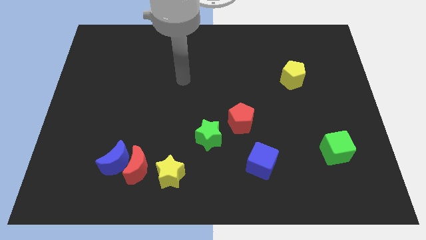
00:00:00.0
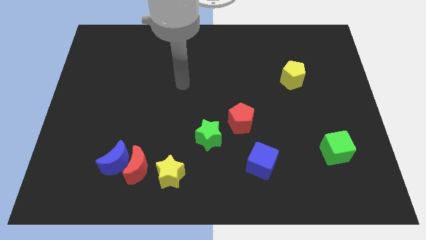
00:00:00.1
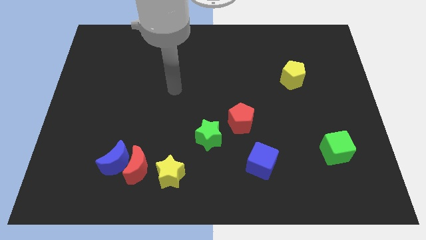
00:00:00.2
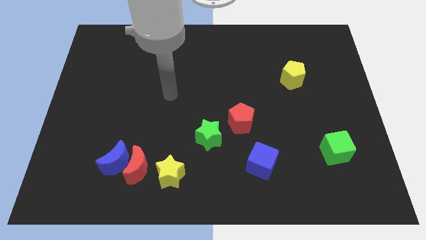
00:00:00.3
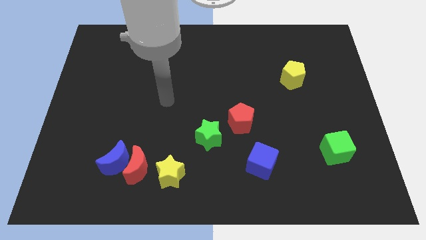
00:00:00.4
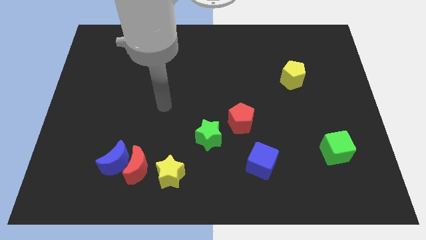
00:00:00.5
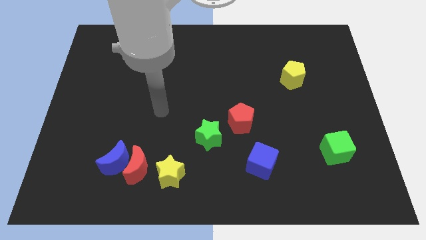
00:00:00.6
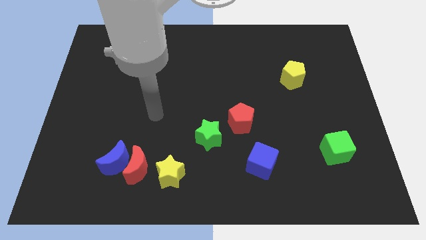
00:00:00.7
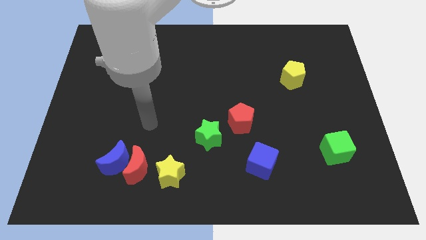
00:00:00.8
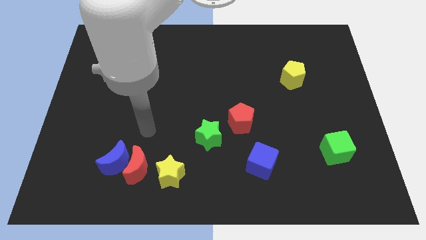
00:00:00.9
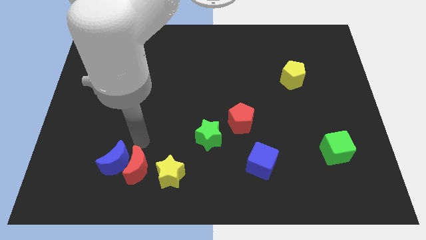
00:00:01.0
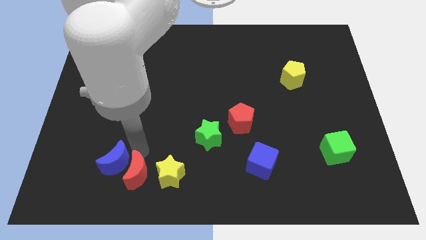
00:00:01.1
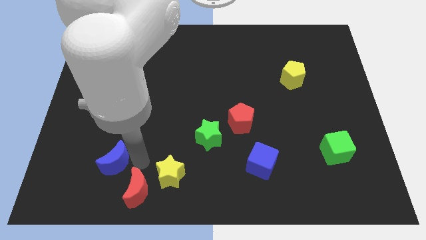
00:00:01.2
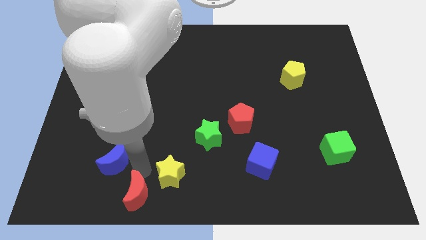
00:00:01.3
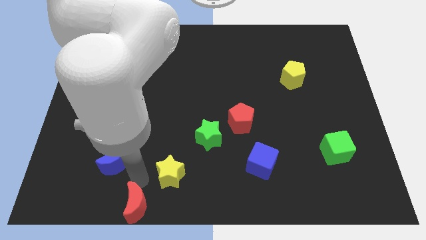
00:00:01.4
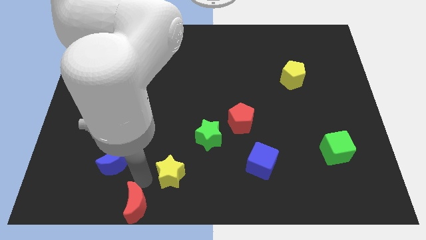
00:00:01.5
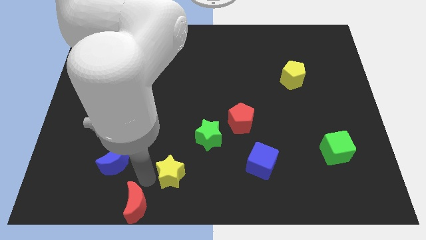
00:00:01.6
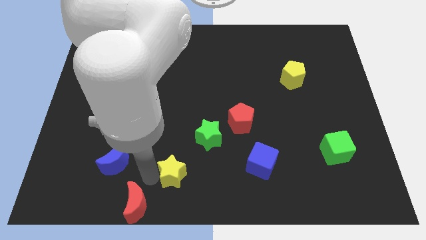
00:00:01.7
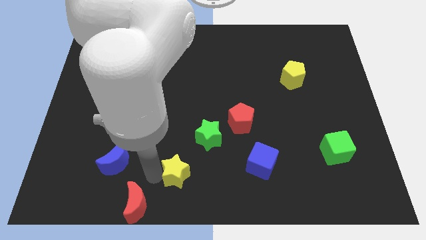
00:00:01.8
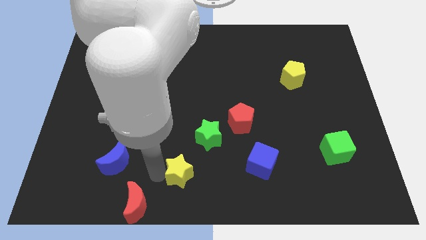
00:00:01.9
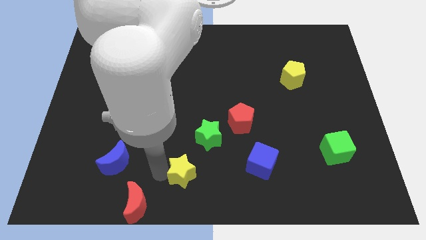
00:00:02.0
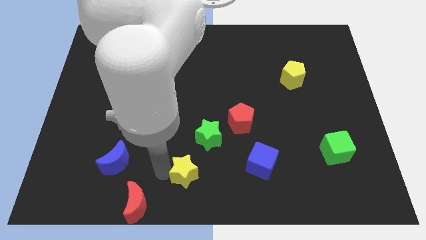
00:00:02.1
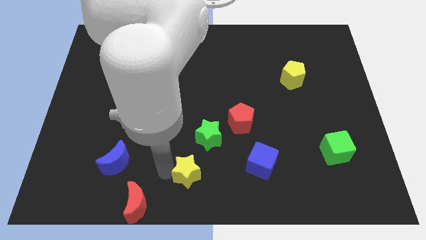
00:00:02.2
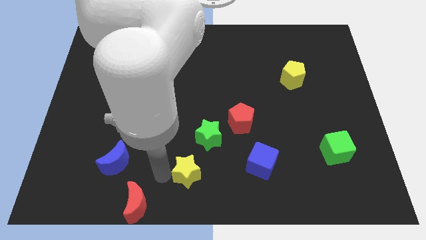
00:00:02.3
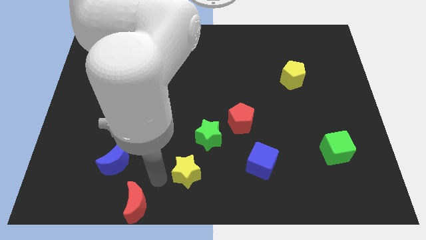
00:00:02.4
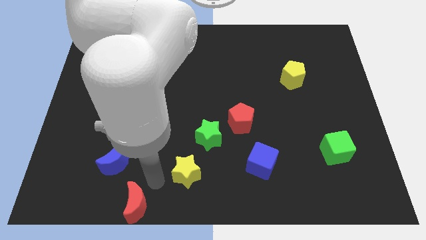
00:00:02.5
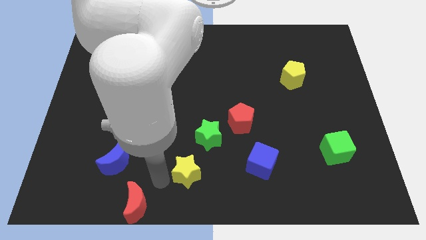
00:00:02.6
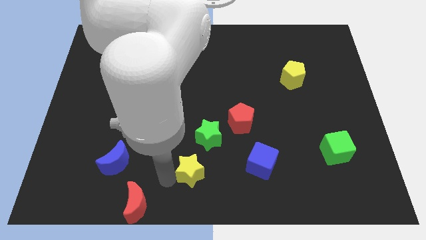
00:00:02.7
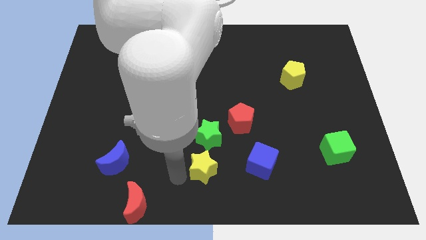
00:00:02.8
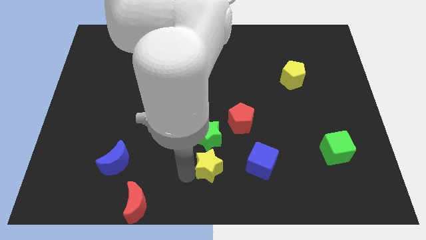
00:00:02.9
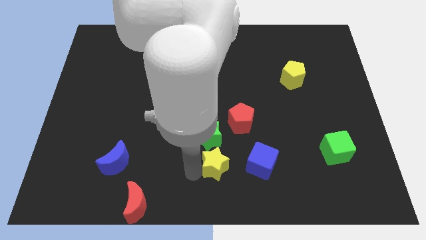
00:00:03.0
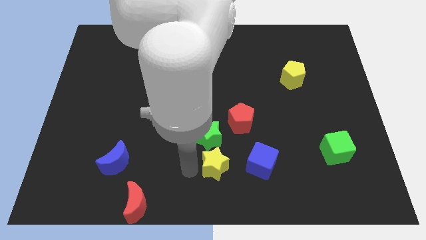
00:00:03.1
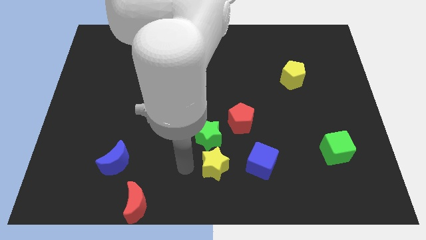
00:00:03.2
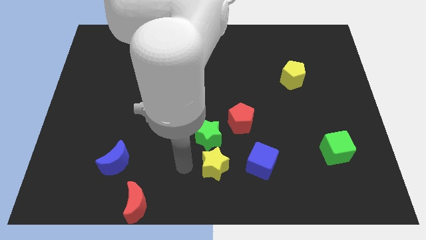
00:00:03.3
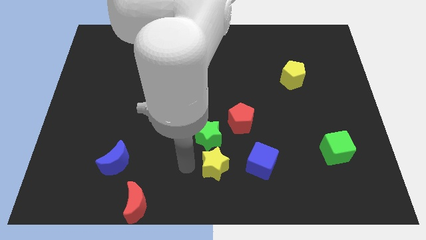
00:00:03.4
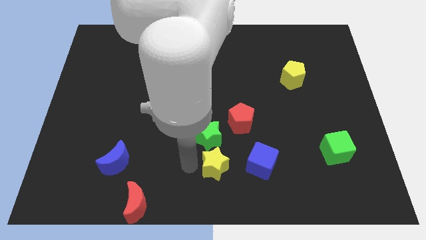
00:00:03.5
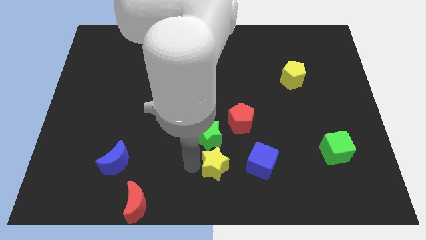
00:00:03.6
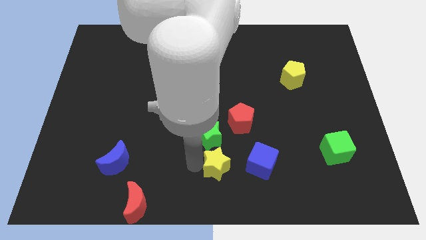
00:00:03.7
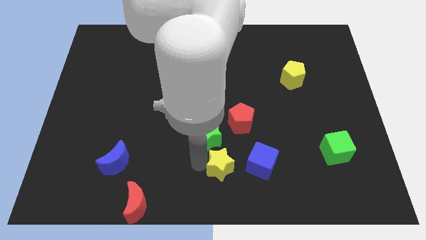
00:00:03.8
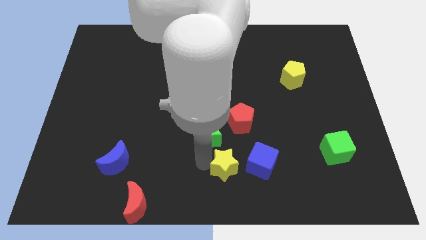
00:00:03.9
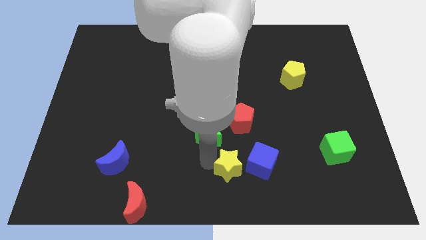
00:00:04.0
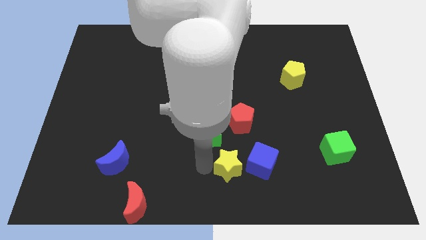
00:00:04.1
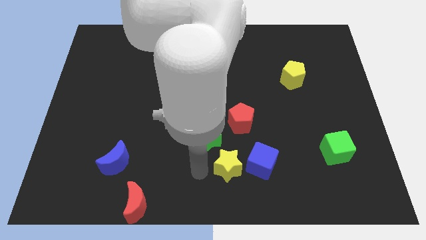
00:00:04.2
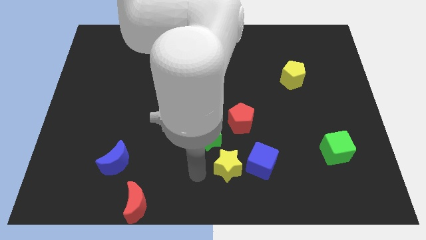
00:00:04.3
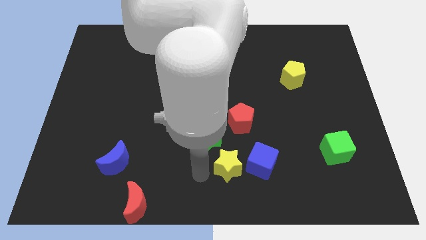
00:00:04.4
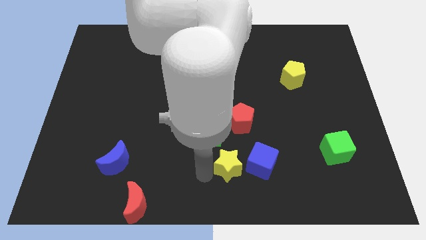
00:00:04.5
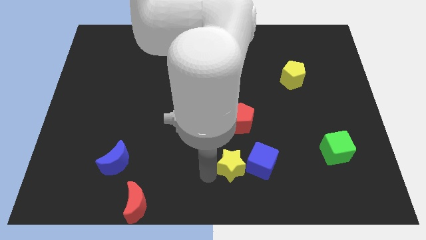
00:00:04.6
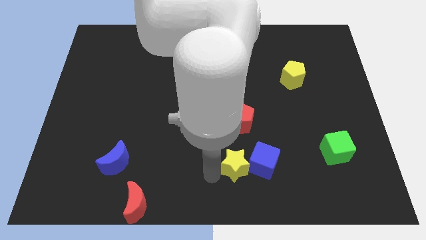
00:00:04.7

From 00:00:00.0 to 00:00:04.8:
put the yellow star next to the blue cube

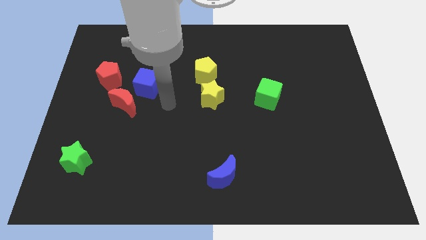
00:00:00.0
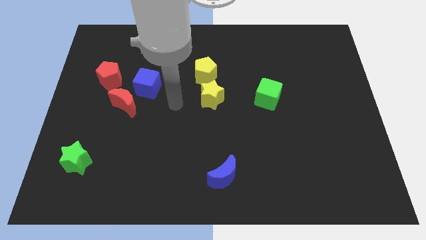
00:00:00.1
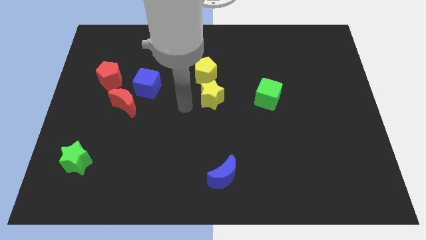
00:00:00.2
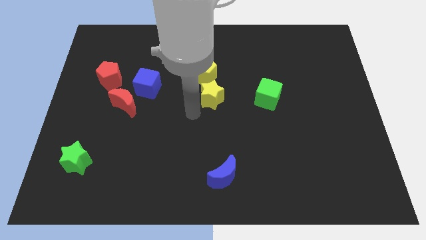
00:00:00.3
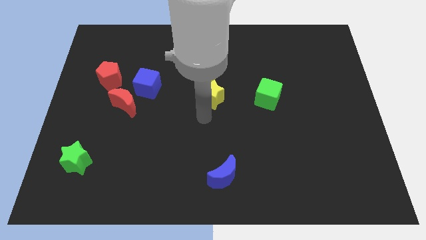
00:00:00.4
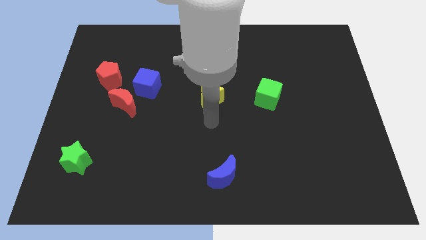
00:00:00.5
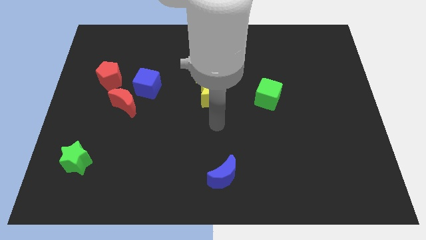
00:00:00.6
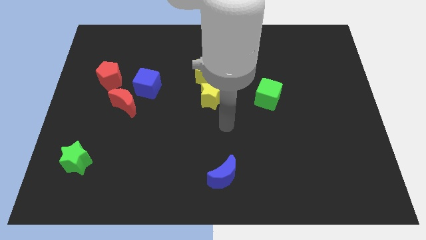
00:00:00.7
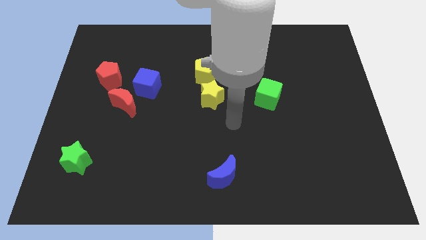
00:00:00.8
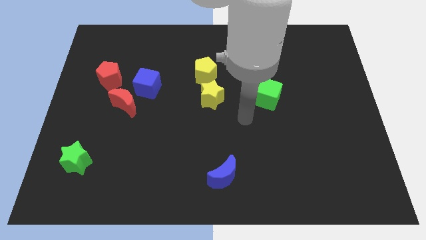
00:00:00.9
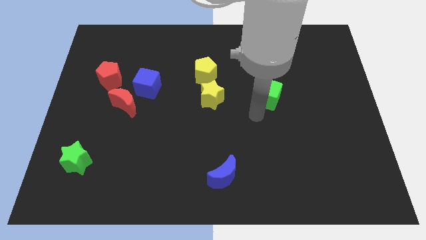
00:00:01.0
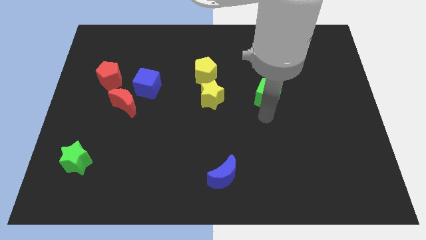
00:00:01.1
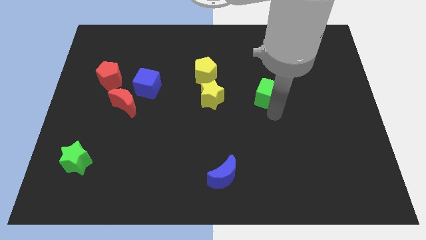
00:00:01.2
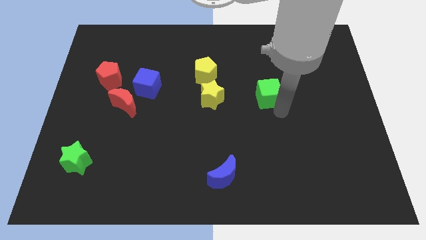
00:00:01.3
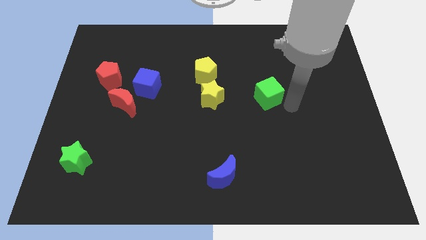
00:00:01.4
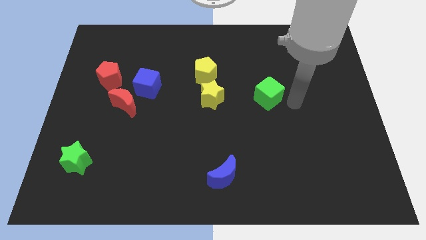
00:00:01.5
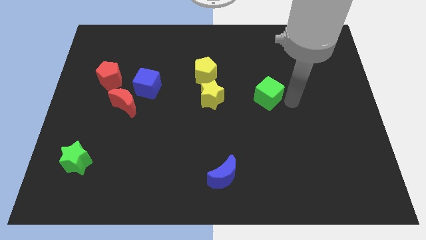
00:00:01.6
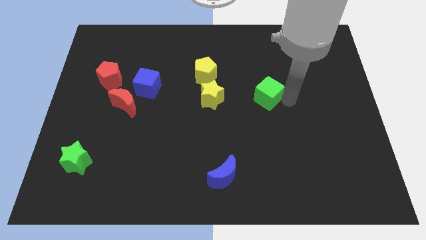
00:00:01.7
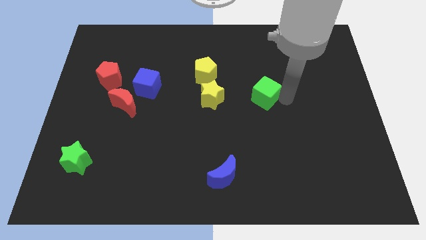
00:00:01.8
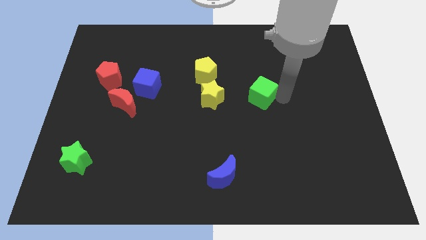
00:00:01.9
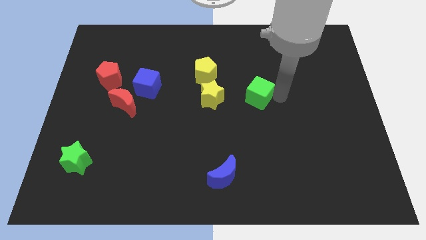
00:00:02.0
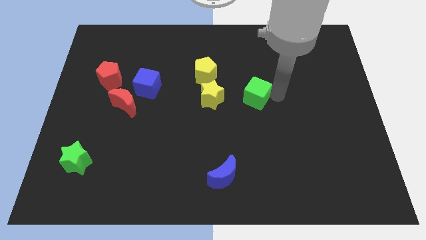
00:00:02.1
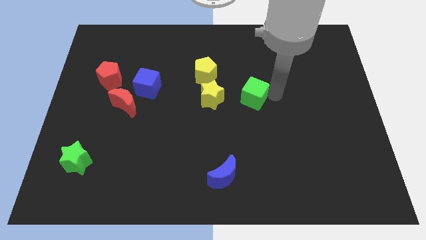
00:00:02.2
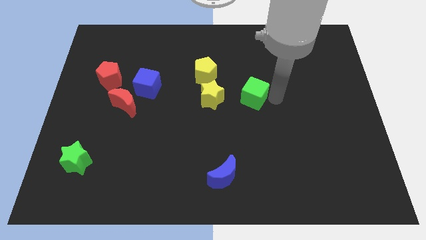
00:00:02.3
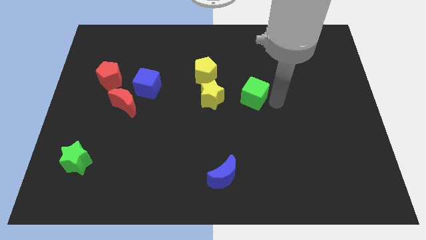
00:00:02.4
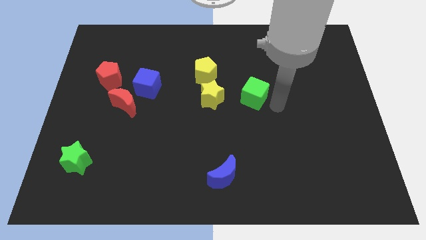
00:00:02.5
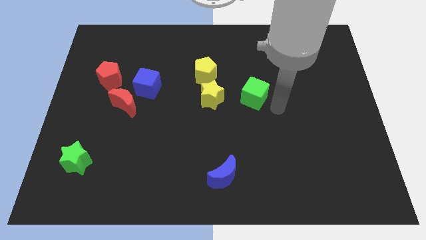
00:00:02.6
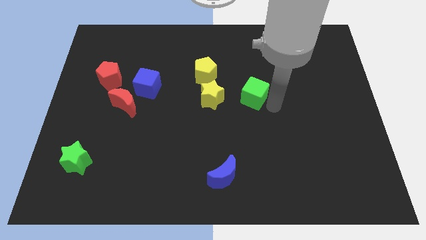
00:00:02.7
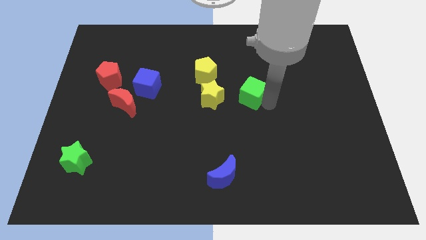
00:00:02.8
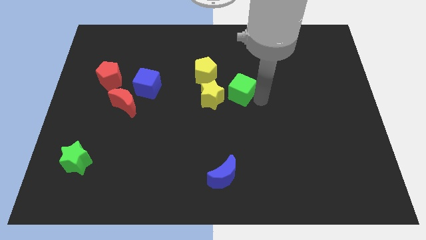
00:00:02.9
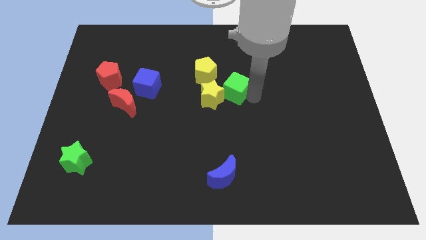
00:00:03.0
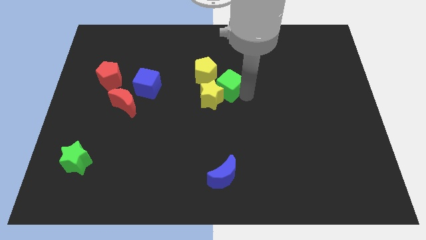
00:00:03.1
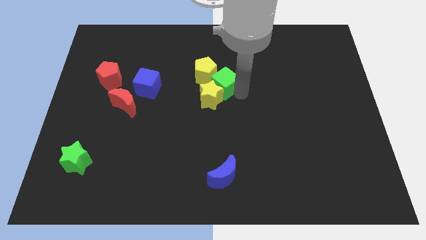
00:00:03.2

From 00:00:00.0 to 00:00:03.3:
move the green cube close to the yellow pentagon
